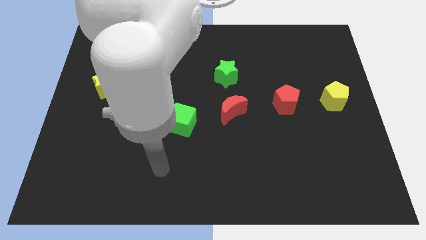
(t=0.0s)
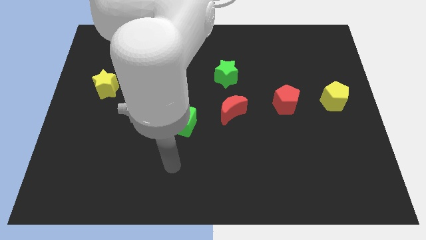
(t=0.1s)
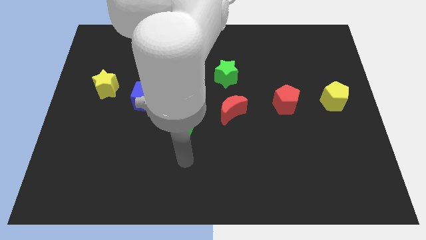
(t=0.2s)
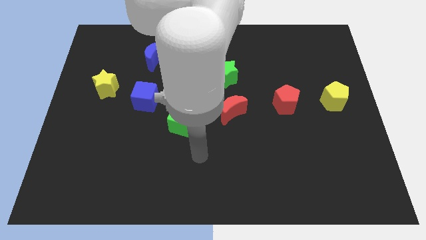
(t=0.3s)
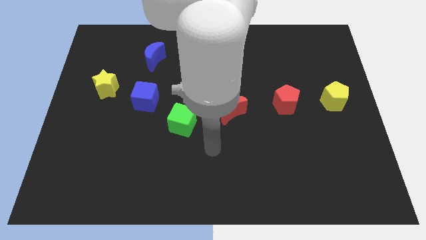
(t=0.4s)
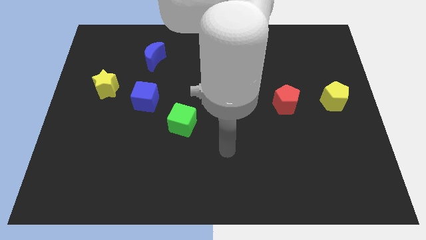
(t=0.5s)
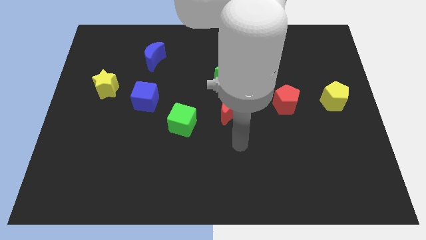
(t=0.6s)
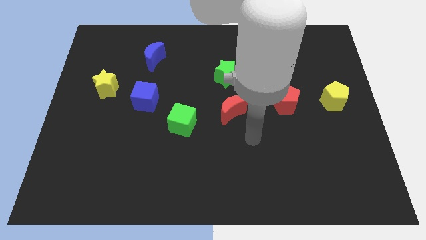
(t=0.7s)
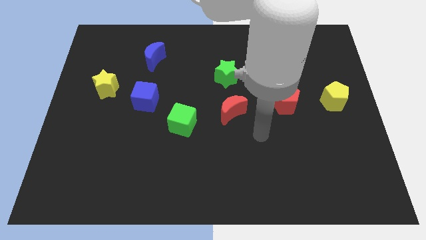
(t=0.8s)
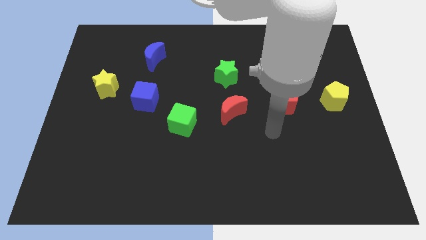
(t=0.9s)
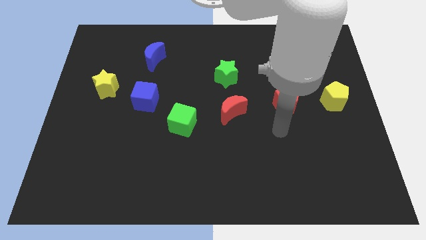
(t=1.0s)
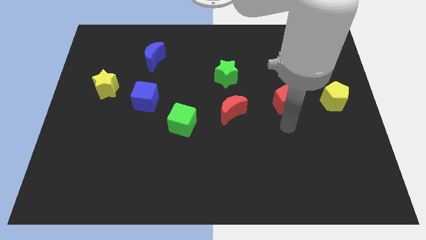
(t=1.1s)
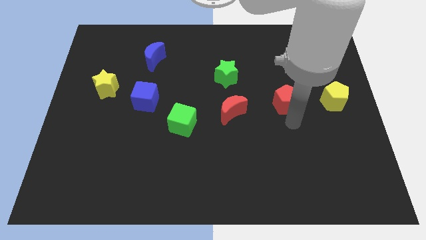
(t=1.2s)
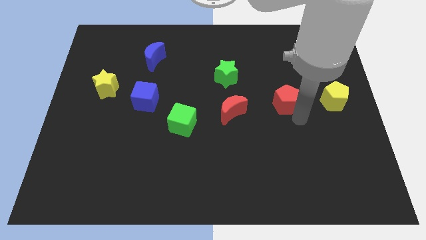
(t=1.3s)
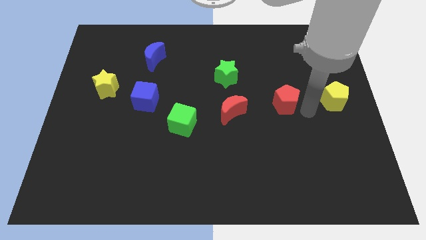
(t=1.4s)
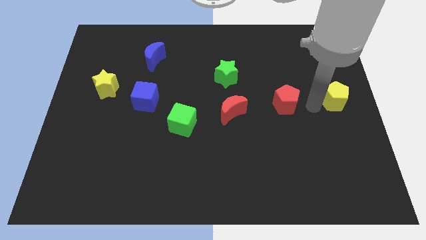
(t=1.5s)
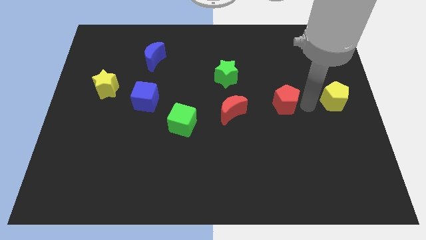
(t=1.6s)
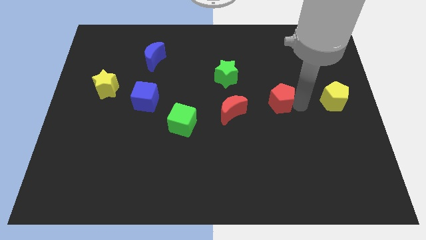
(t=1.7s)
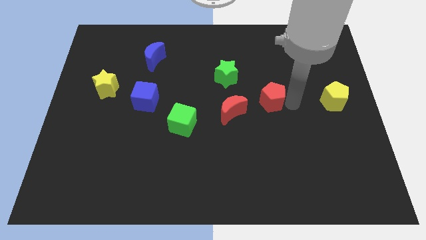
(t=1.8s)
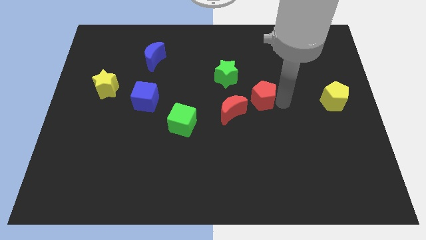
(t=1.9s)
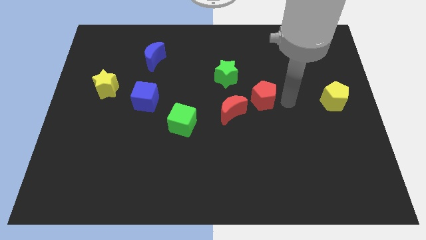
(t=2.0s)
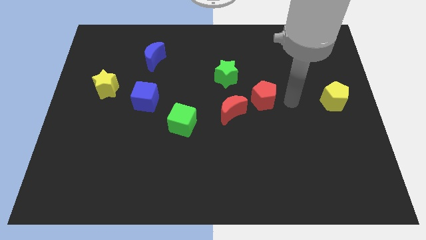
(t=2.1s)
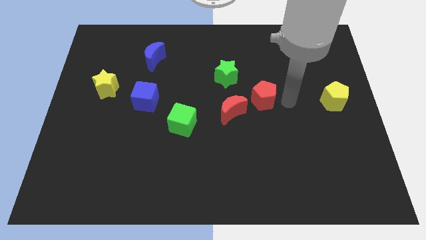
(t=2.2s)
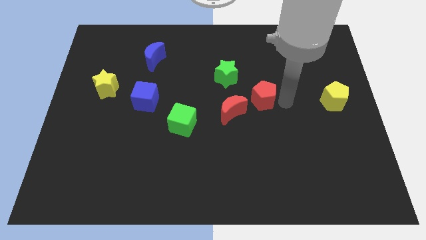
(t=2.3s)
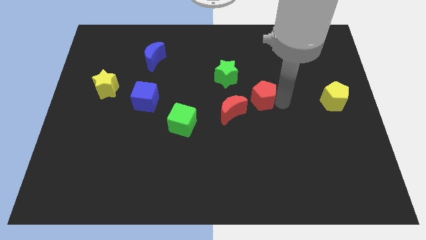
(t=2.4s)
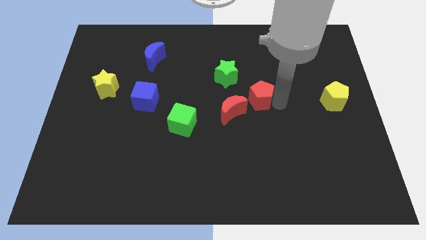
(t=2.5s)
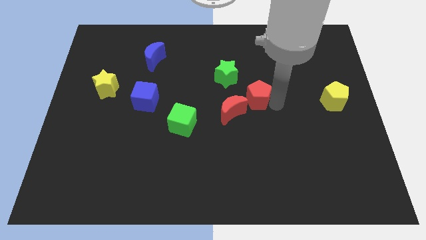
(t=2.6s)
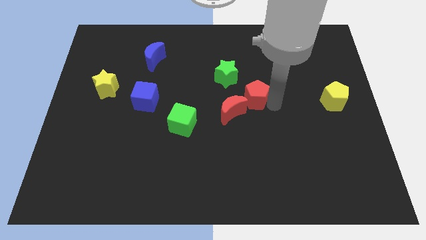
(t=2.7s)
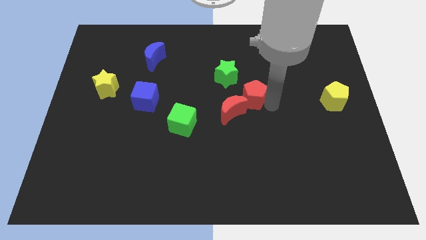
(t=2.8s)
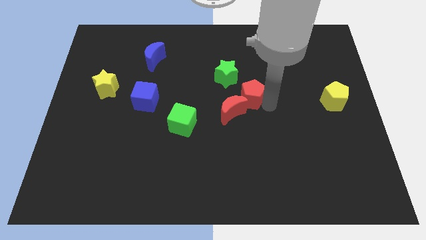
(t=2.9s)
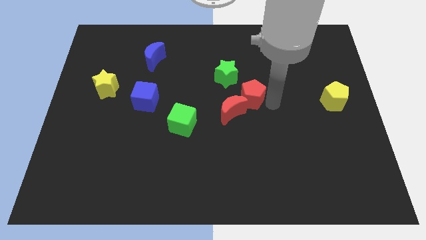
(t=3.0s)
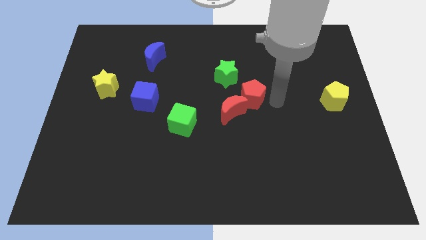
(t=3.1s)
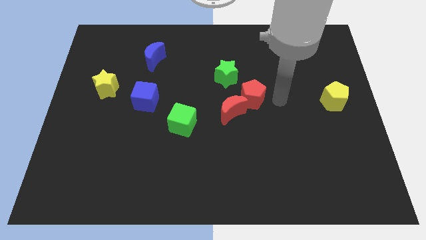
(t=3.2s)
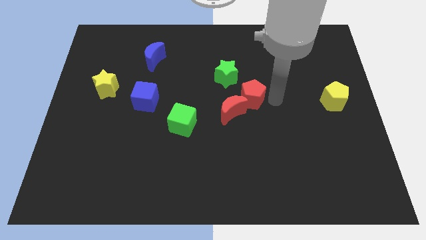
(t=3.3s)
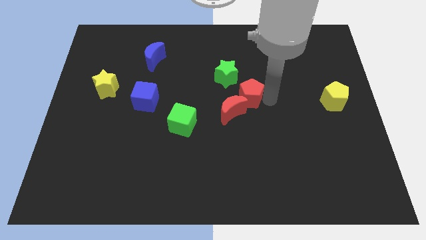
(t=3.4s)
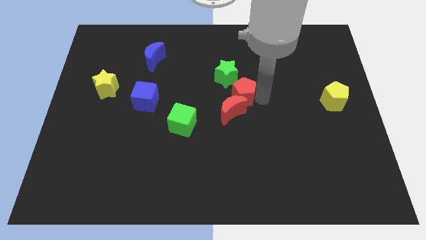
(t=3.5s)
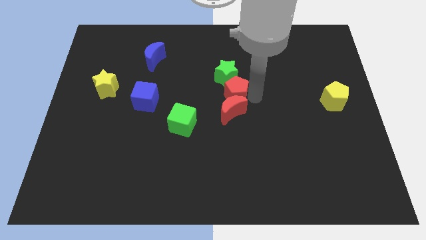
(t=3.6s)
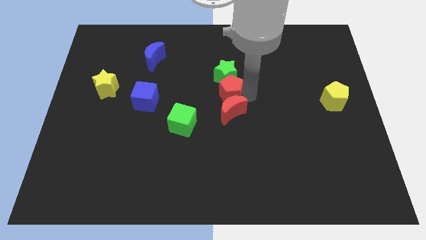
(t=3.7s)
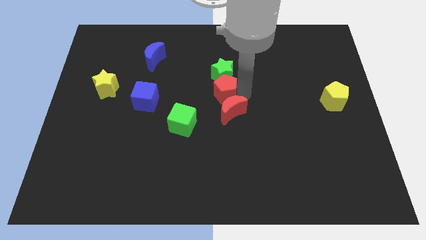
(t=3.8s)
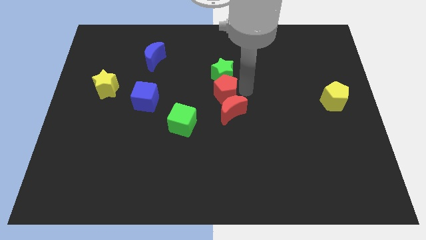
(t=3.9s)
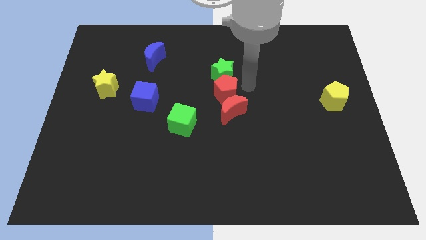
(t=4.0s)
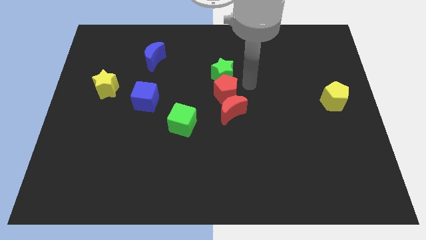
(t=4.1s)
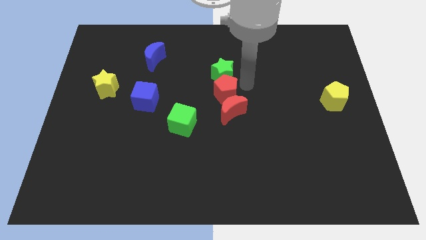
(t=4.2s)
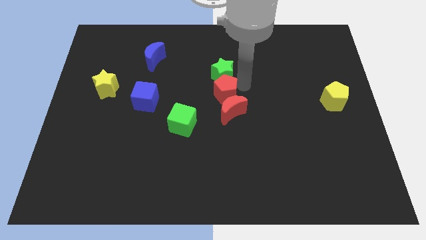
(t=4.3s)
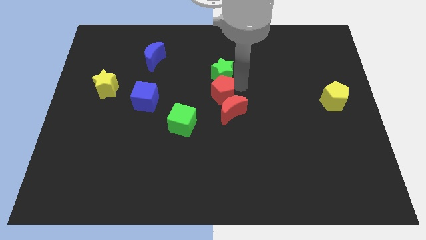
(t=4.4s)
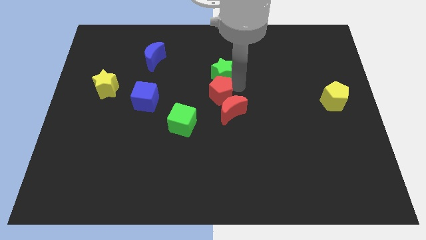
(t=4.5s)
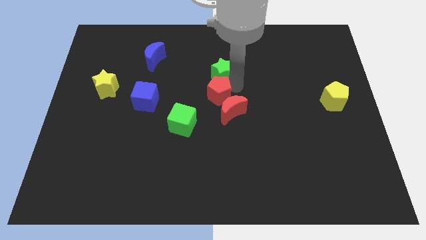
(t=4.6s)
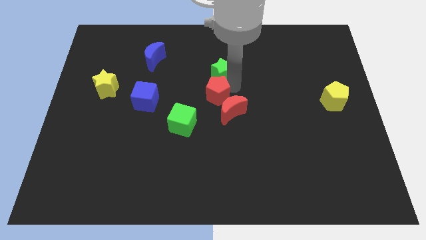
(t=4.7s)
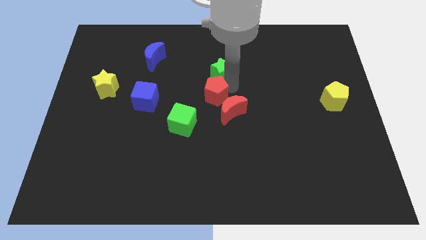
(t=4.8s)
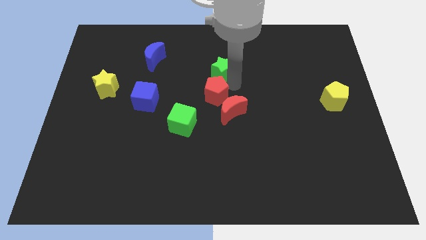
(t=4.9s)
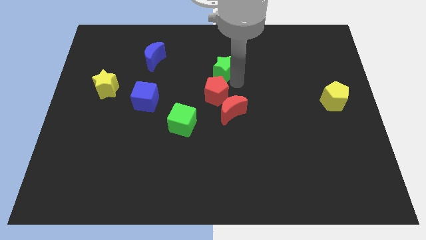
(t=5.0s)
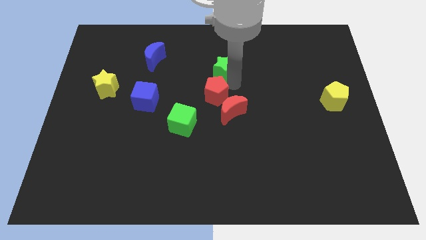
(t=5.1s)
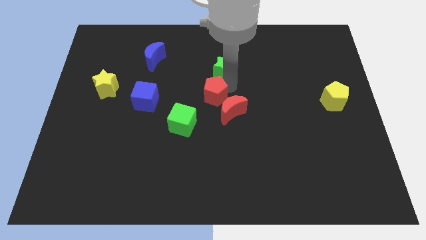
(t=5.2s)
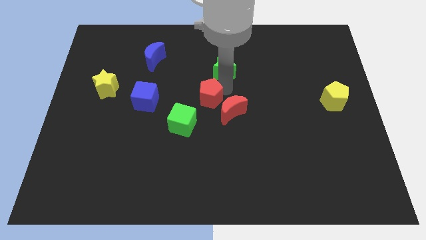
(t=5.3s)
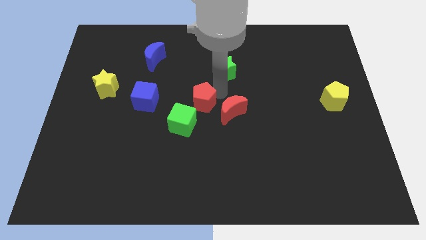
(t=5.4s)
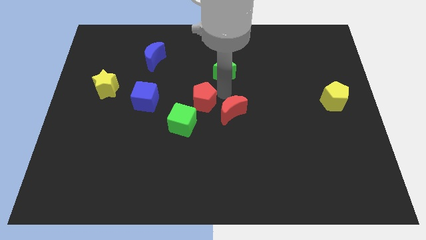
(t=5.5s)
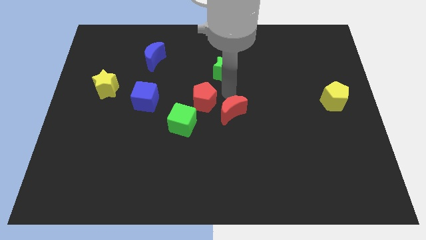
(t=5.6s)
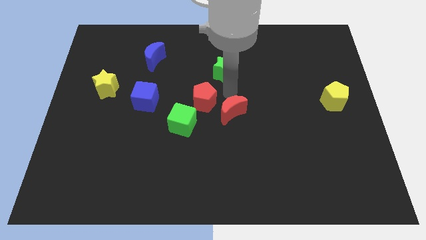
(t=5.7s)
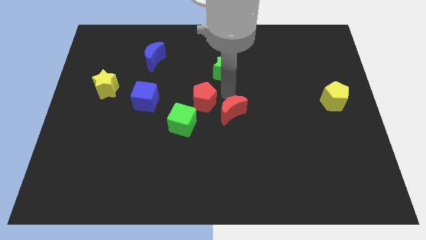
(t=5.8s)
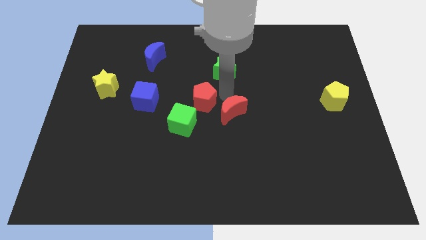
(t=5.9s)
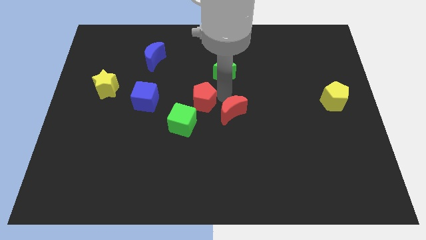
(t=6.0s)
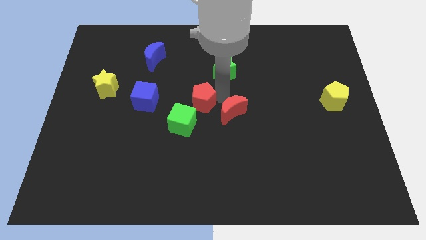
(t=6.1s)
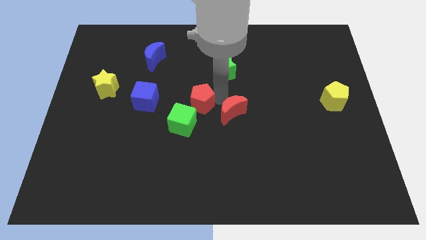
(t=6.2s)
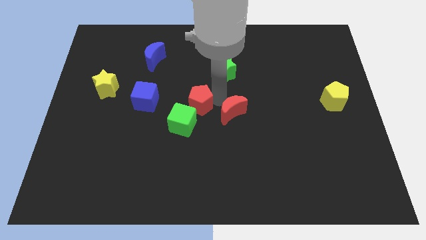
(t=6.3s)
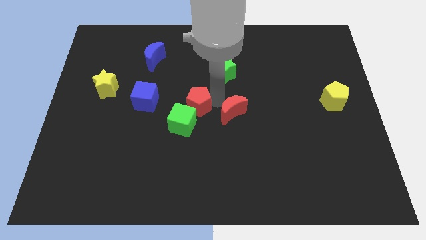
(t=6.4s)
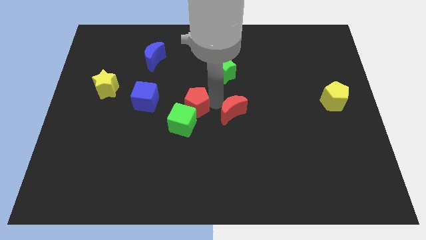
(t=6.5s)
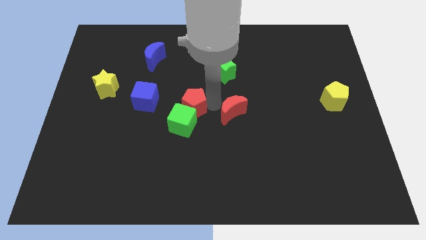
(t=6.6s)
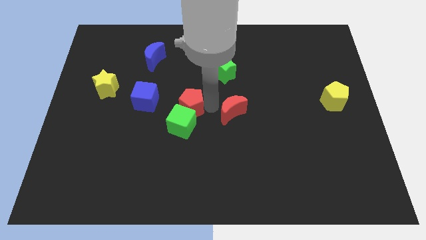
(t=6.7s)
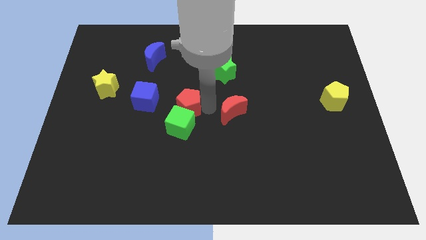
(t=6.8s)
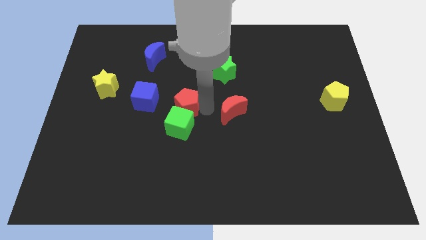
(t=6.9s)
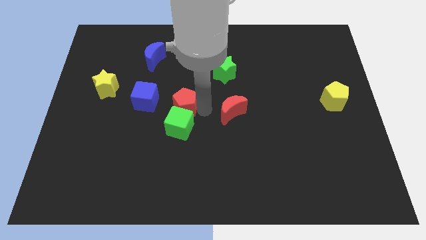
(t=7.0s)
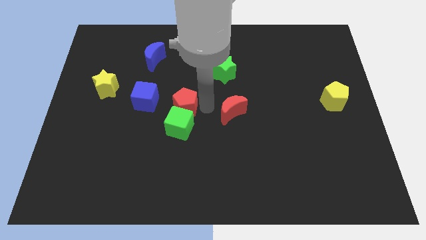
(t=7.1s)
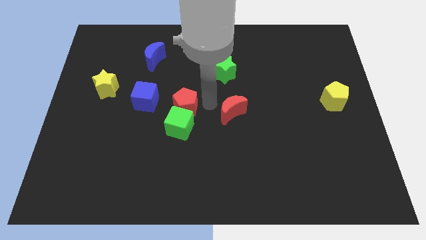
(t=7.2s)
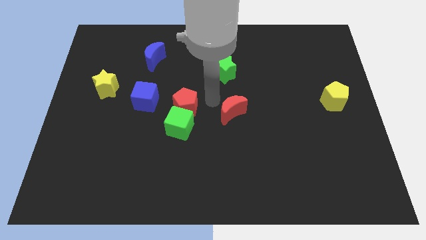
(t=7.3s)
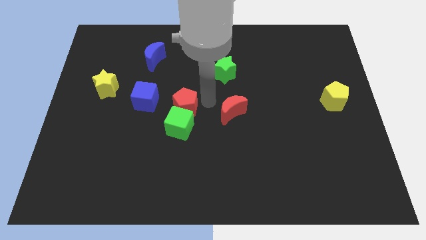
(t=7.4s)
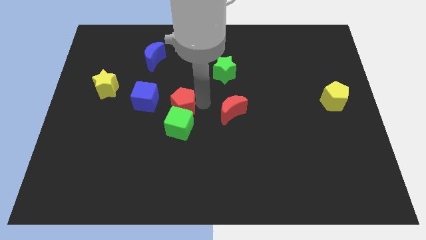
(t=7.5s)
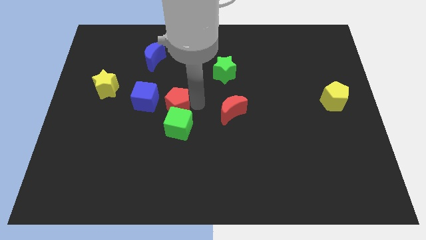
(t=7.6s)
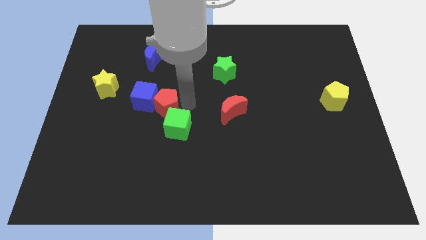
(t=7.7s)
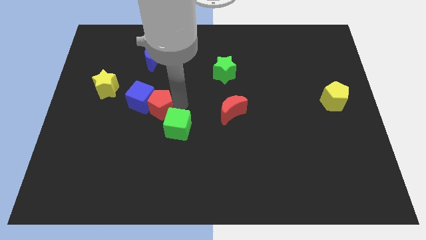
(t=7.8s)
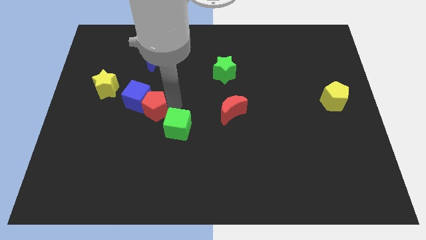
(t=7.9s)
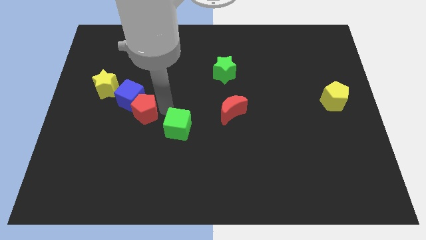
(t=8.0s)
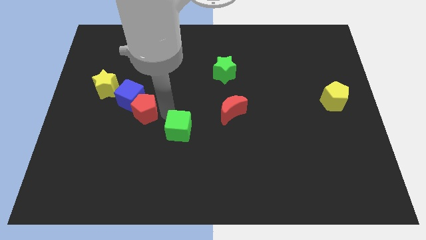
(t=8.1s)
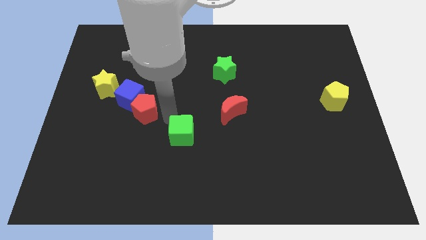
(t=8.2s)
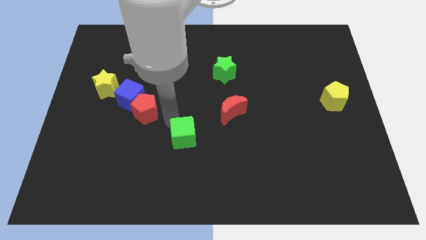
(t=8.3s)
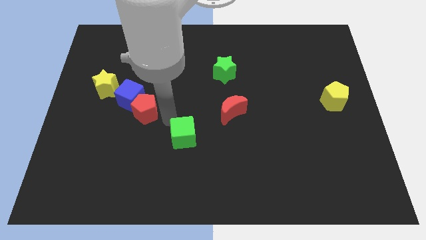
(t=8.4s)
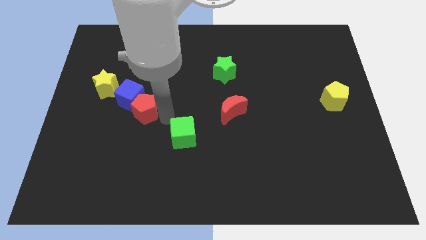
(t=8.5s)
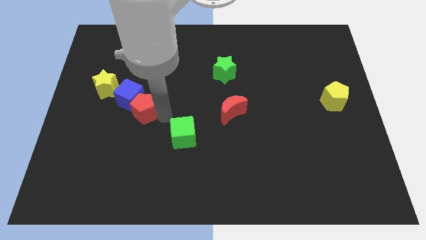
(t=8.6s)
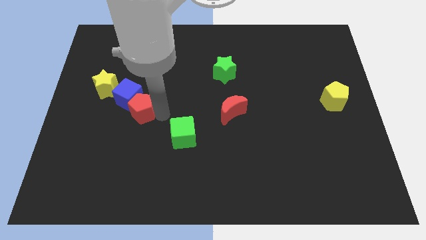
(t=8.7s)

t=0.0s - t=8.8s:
push the red pentagon diagonally down and to the right of the yellow star
